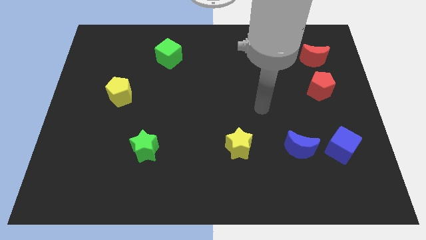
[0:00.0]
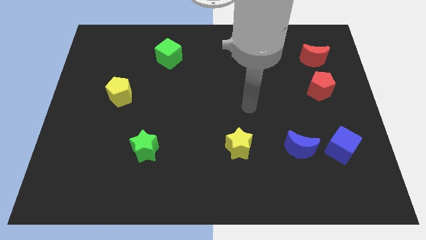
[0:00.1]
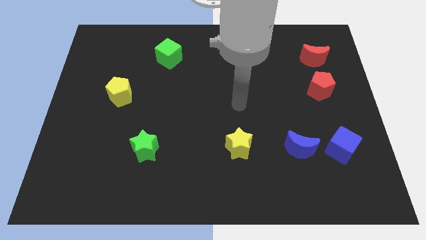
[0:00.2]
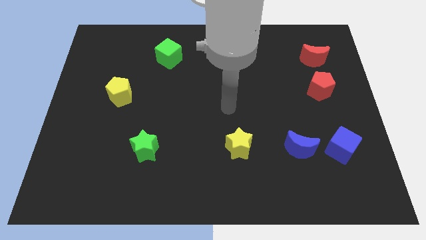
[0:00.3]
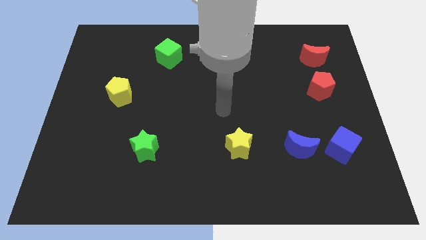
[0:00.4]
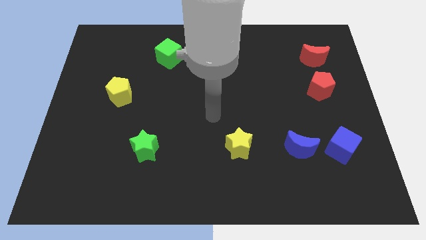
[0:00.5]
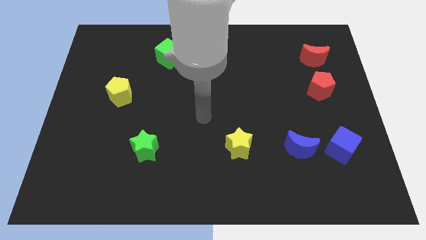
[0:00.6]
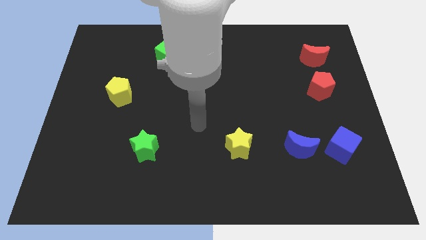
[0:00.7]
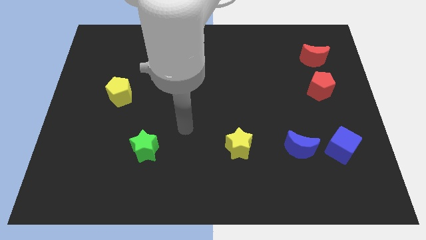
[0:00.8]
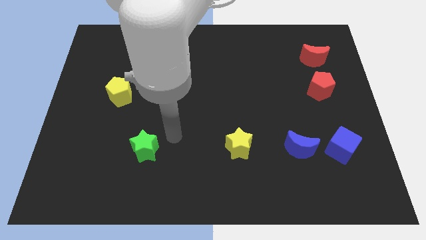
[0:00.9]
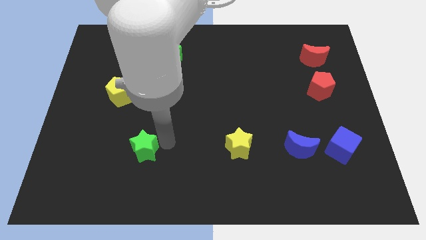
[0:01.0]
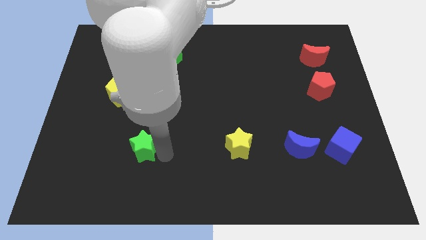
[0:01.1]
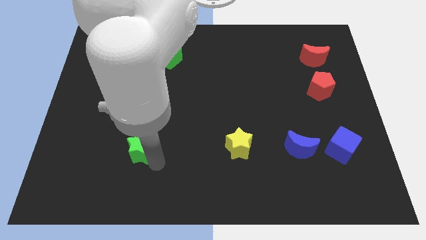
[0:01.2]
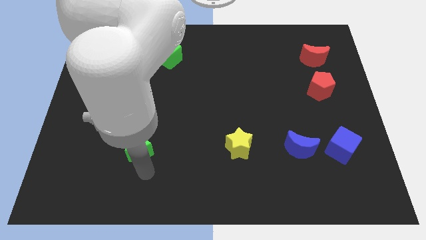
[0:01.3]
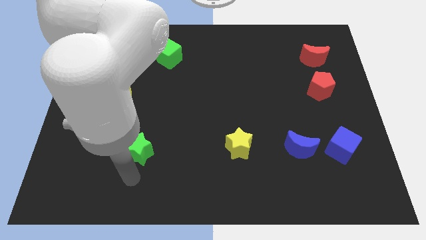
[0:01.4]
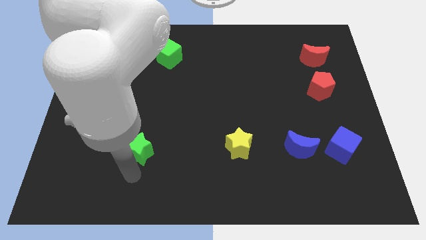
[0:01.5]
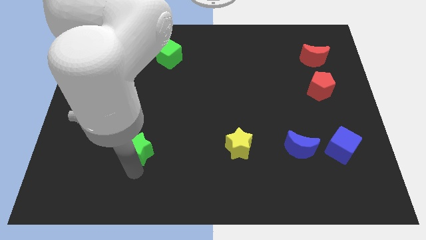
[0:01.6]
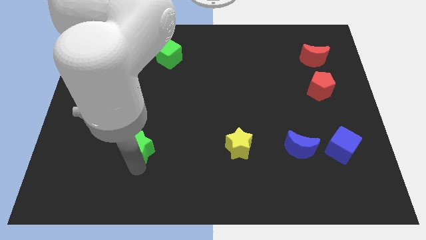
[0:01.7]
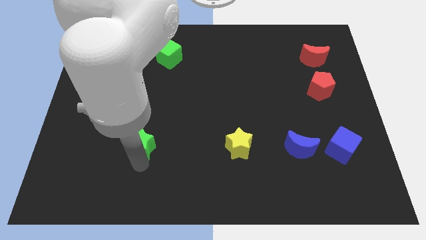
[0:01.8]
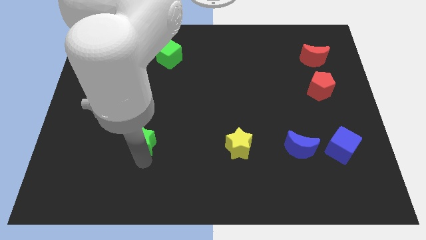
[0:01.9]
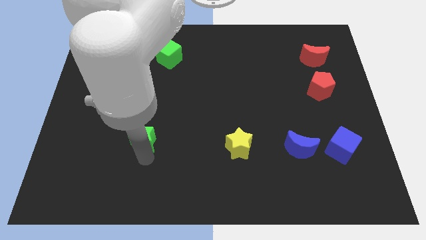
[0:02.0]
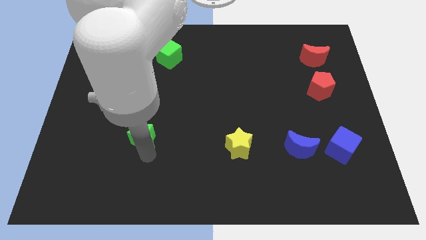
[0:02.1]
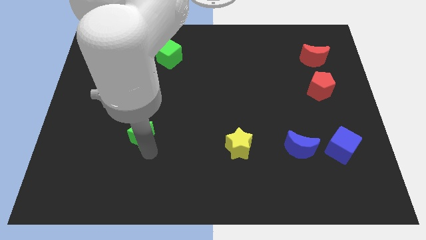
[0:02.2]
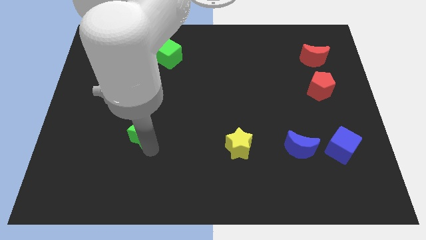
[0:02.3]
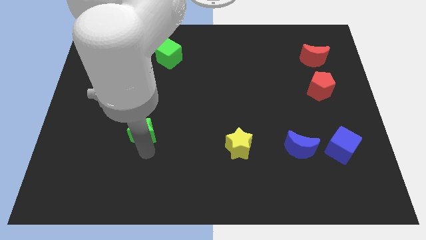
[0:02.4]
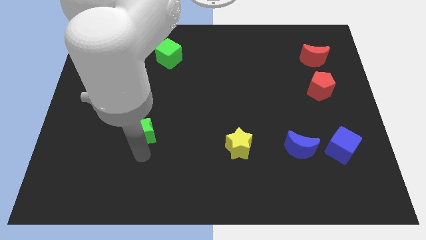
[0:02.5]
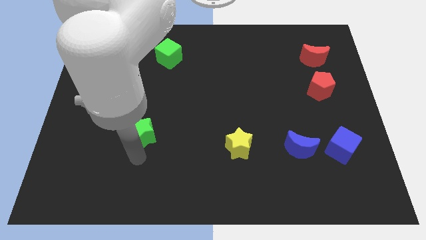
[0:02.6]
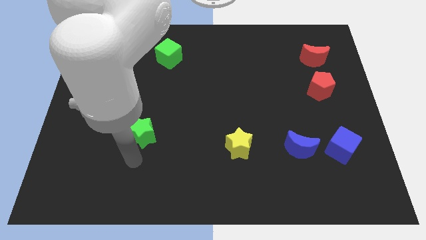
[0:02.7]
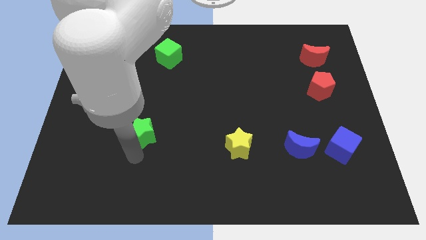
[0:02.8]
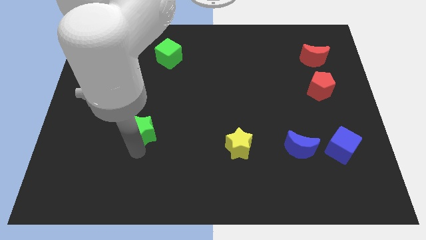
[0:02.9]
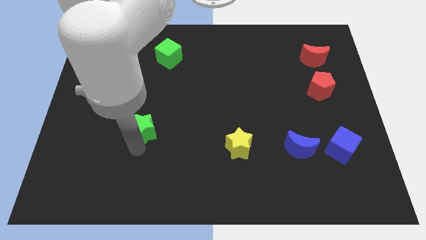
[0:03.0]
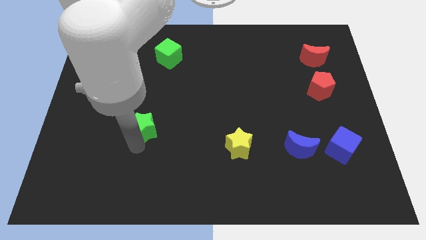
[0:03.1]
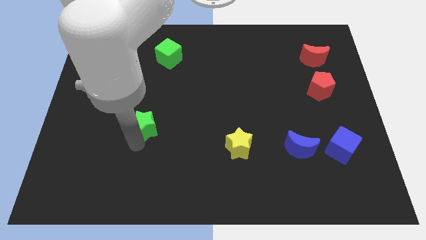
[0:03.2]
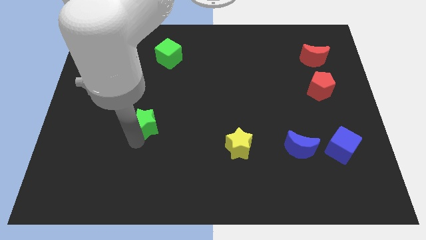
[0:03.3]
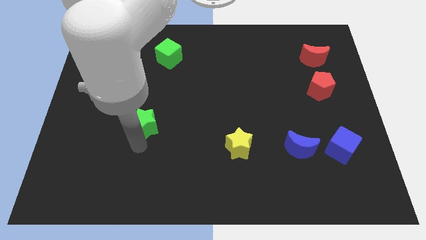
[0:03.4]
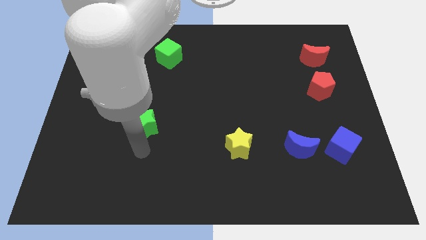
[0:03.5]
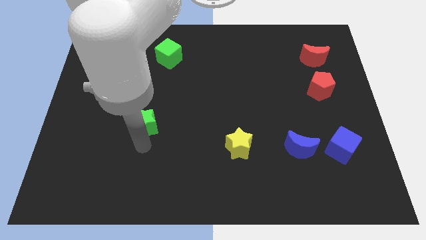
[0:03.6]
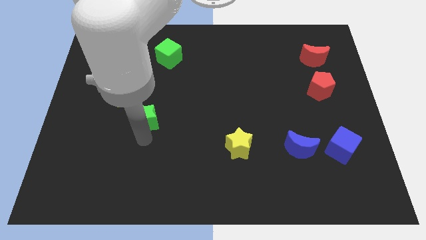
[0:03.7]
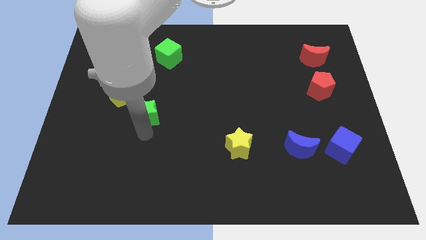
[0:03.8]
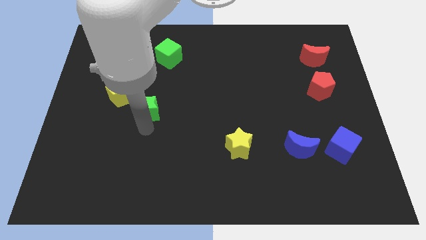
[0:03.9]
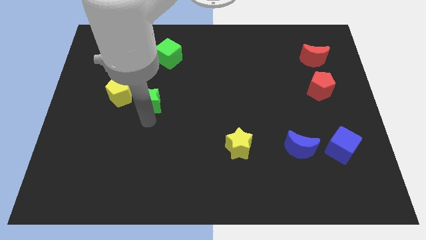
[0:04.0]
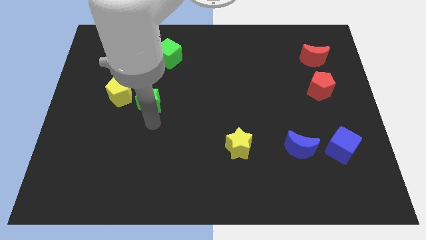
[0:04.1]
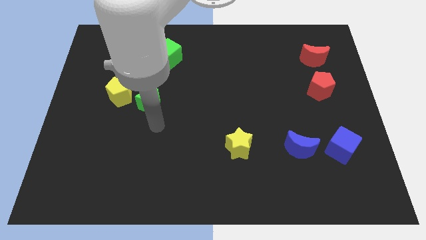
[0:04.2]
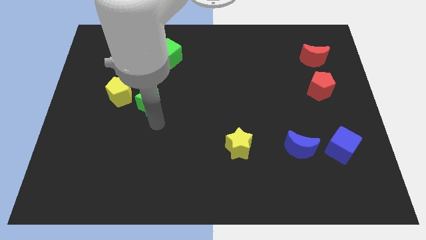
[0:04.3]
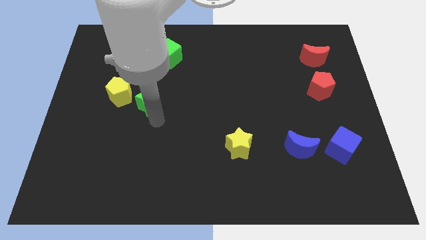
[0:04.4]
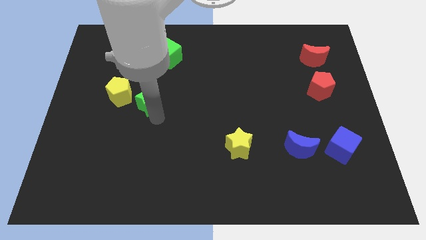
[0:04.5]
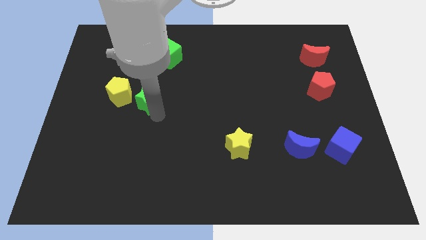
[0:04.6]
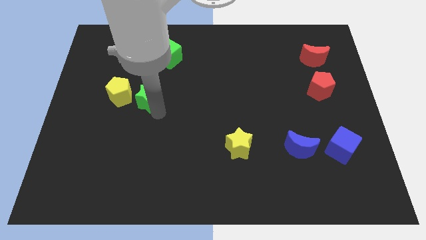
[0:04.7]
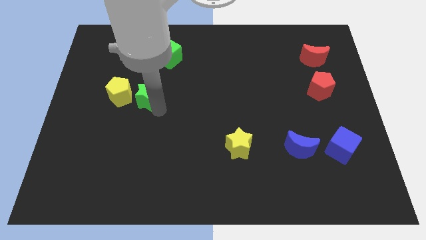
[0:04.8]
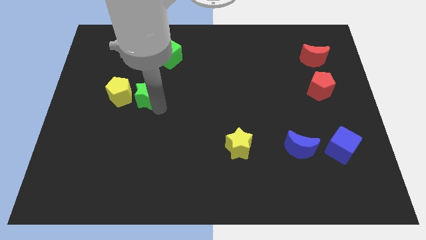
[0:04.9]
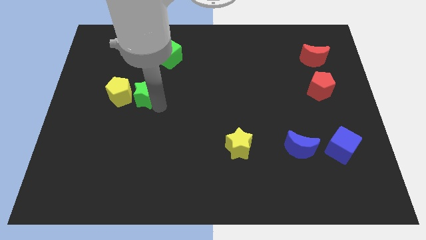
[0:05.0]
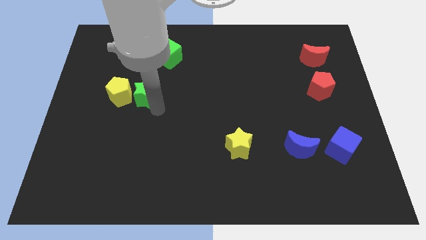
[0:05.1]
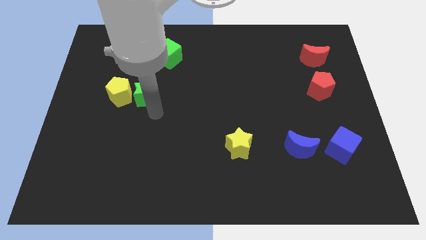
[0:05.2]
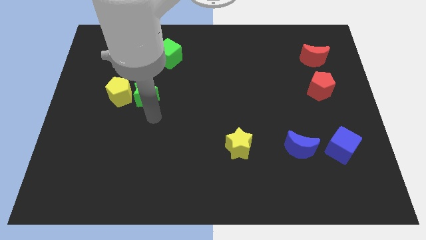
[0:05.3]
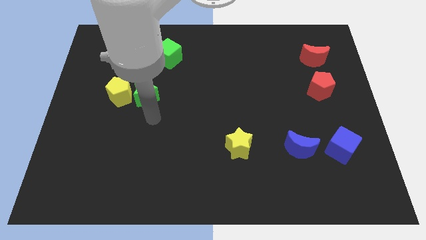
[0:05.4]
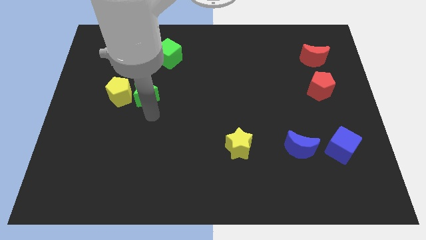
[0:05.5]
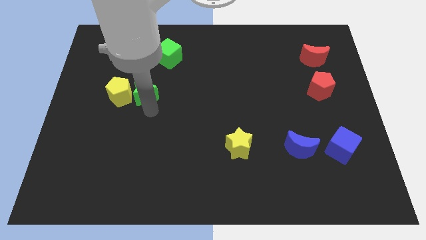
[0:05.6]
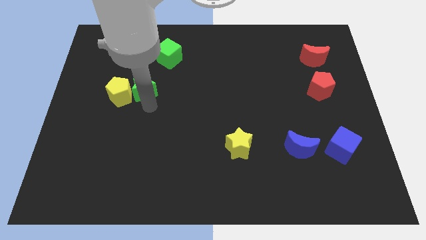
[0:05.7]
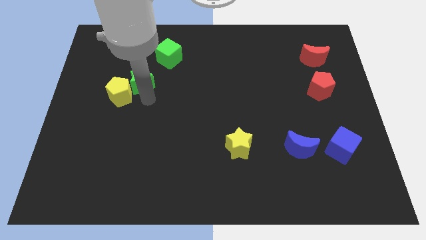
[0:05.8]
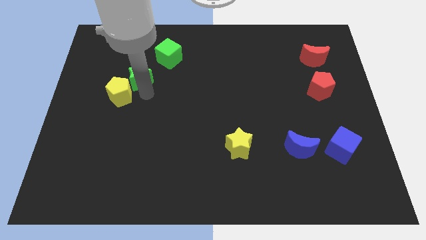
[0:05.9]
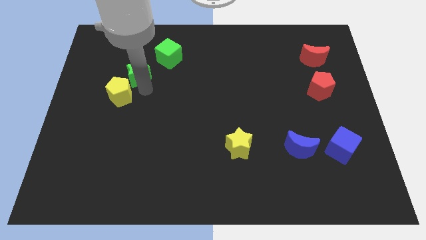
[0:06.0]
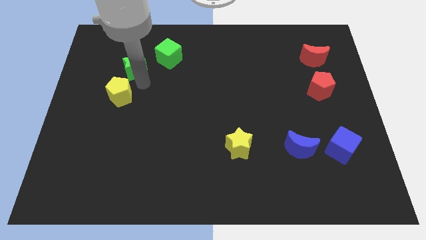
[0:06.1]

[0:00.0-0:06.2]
move the green star just left of the green cube

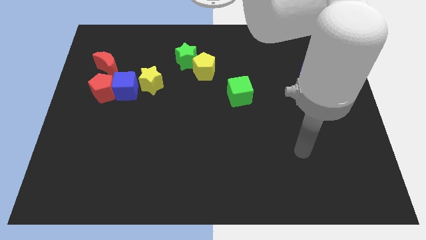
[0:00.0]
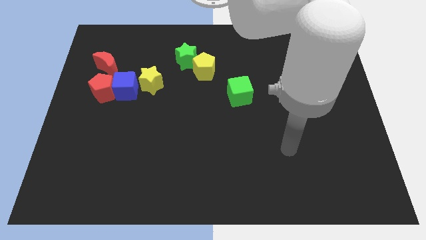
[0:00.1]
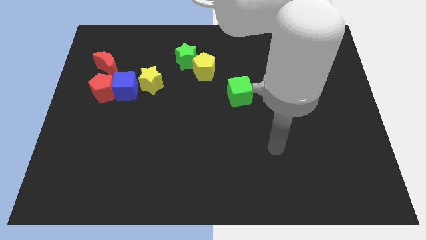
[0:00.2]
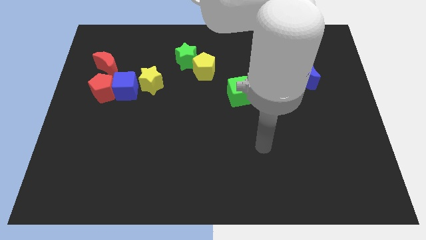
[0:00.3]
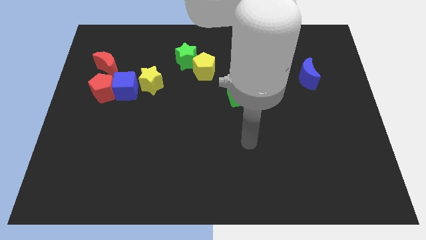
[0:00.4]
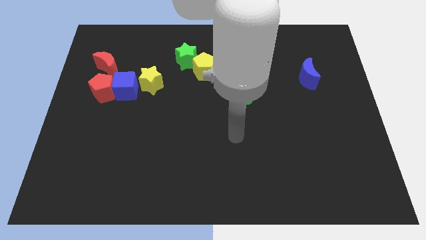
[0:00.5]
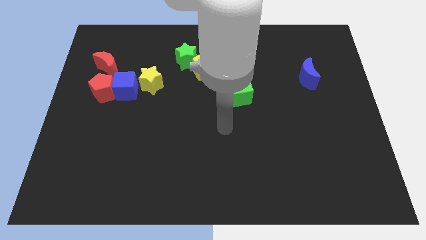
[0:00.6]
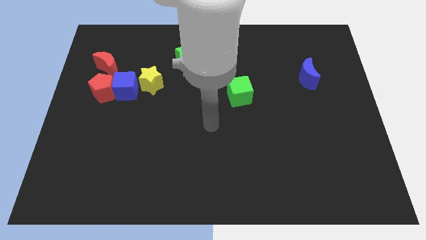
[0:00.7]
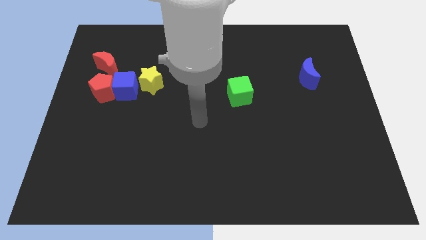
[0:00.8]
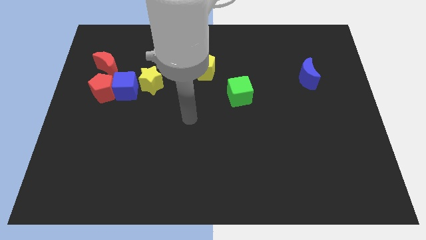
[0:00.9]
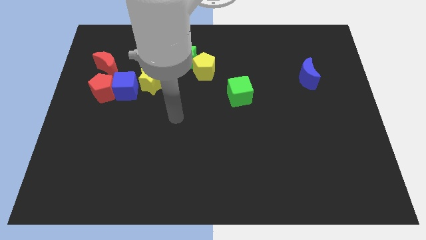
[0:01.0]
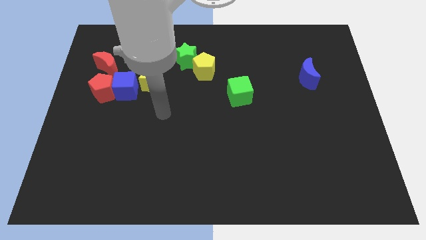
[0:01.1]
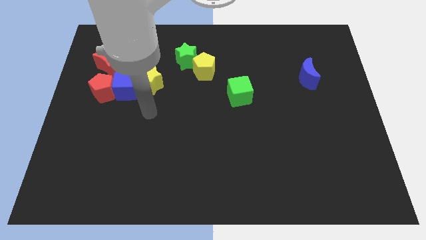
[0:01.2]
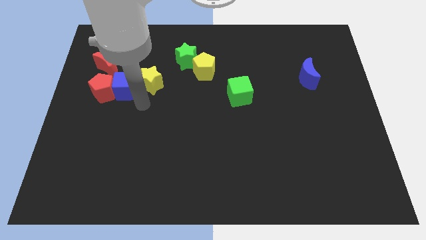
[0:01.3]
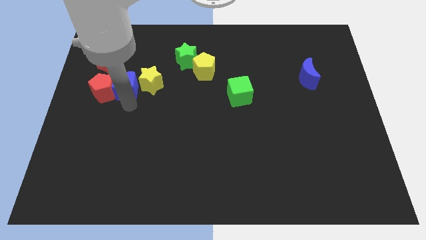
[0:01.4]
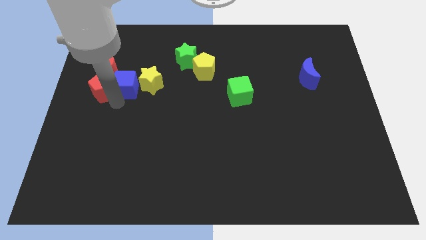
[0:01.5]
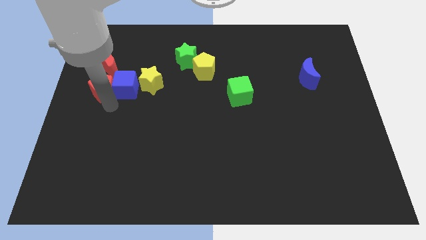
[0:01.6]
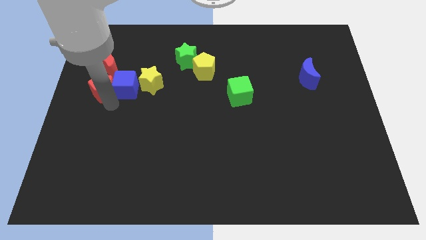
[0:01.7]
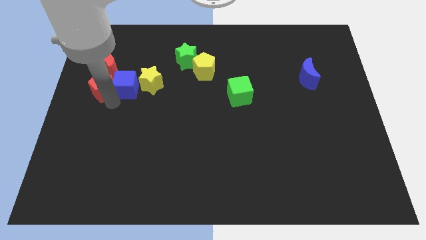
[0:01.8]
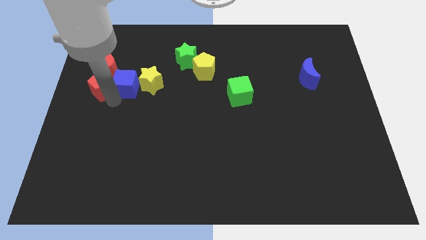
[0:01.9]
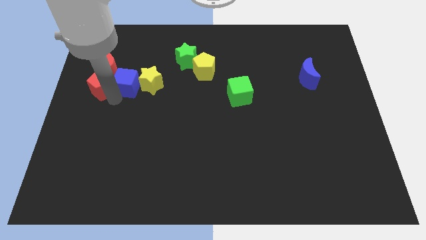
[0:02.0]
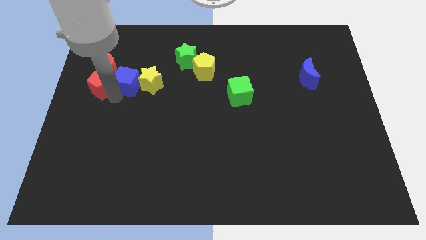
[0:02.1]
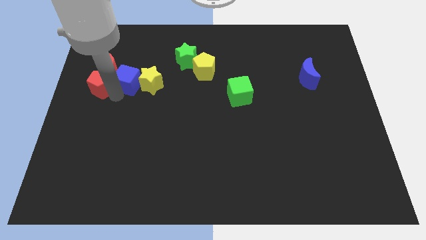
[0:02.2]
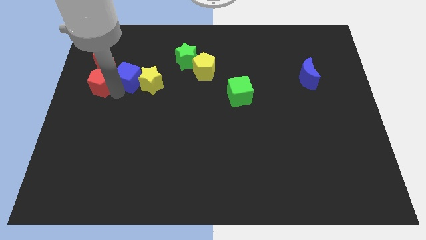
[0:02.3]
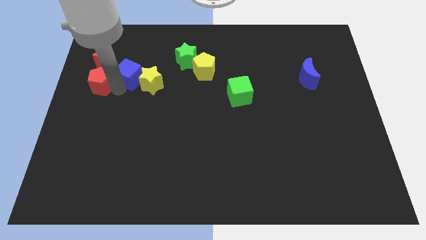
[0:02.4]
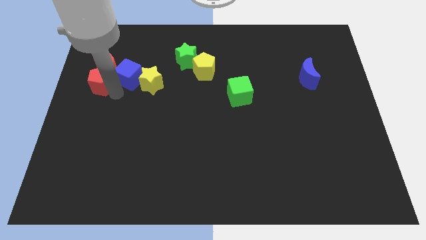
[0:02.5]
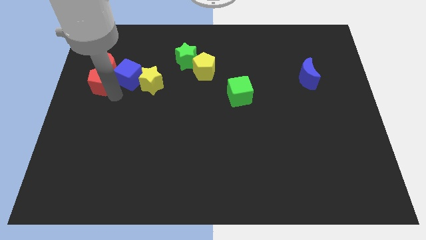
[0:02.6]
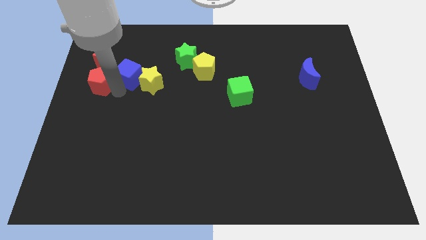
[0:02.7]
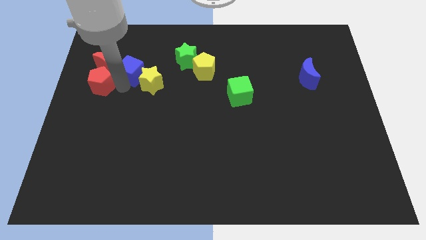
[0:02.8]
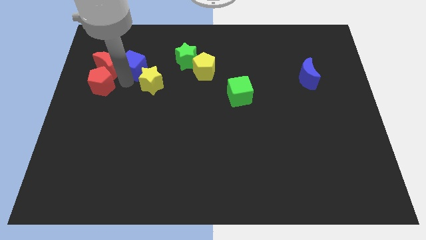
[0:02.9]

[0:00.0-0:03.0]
push the blue cube left of the green star
